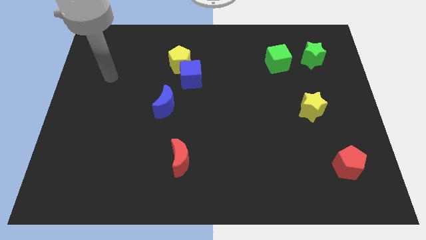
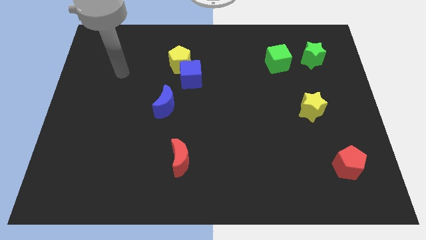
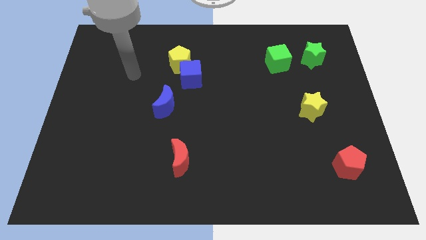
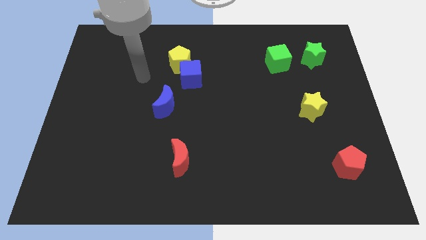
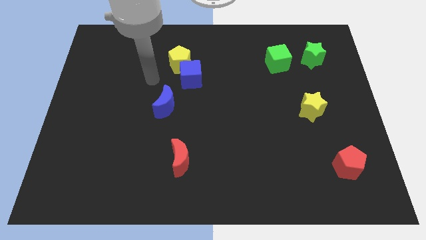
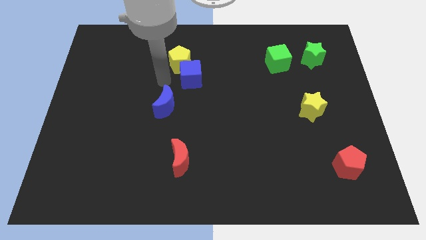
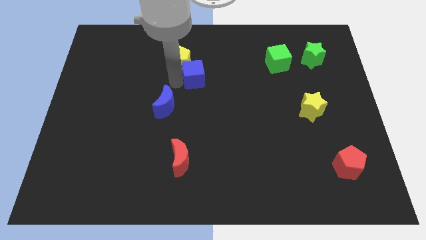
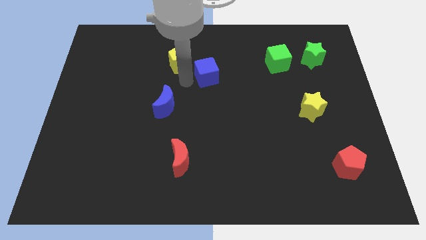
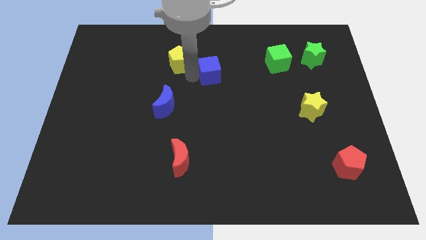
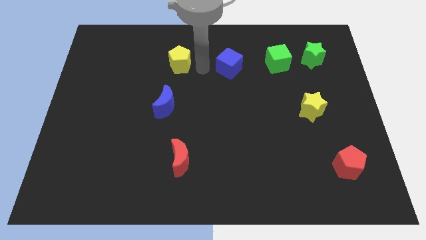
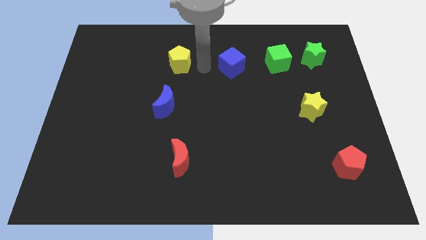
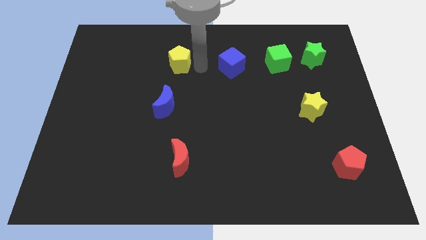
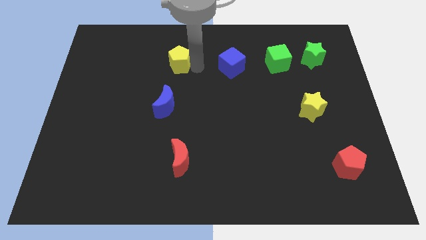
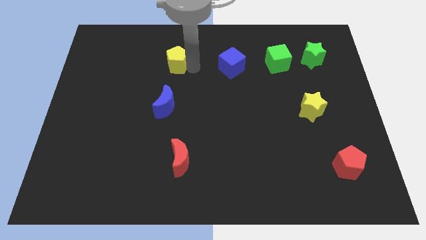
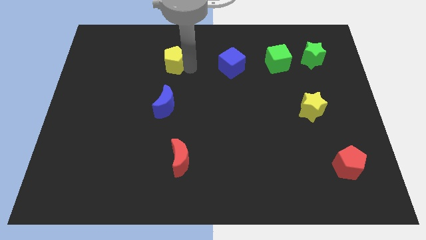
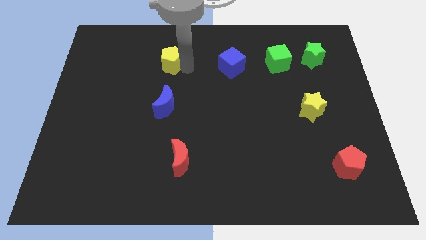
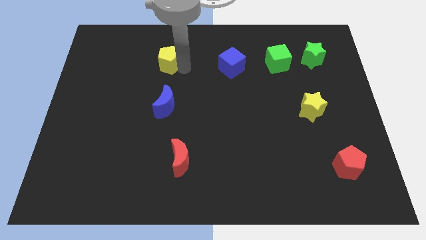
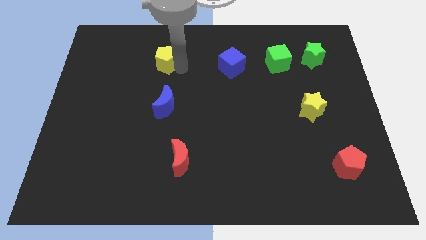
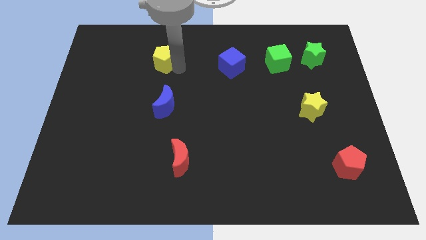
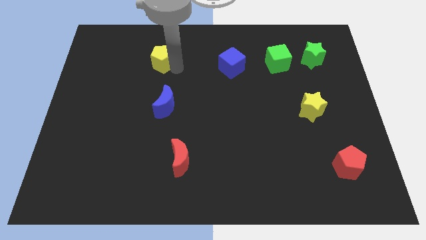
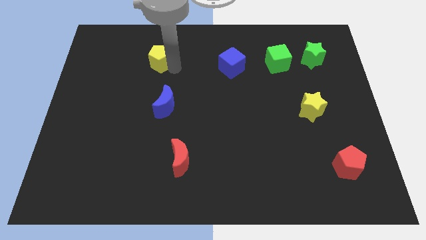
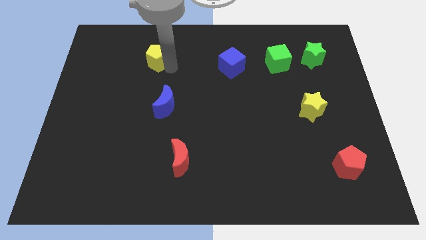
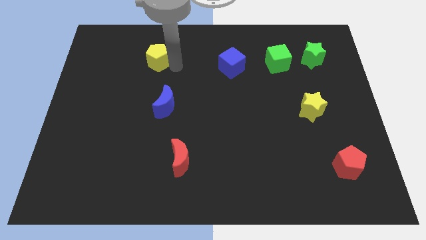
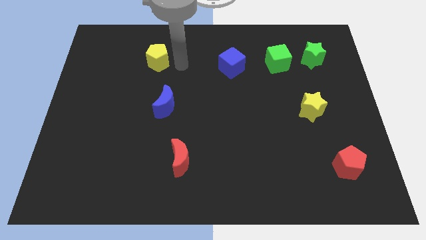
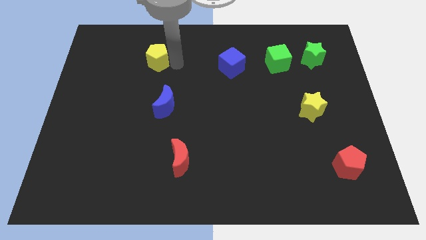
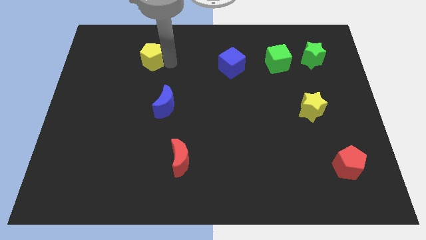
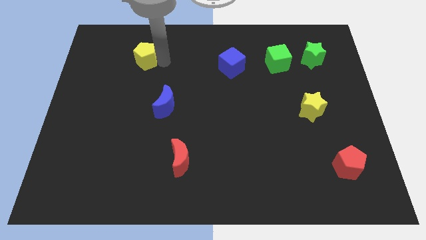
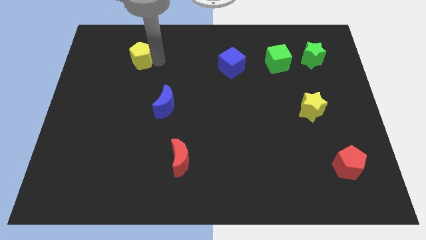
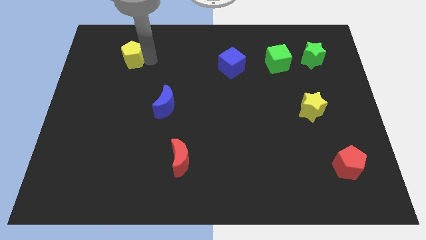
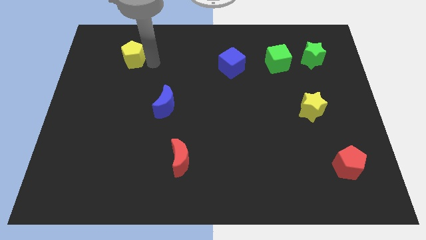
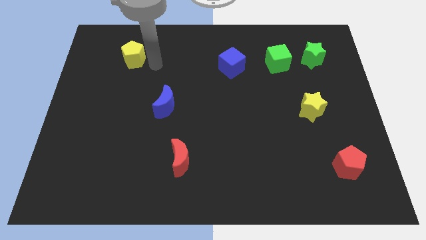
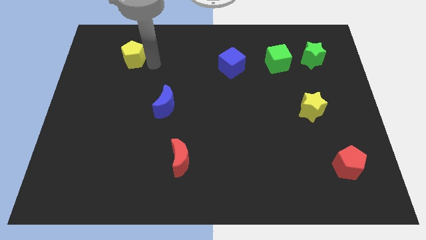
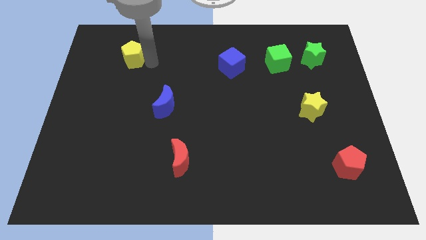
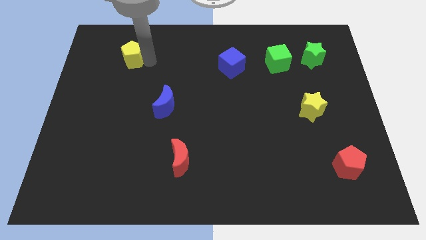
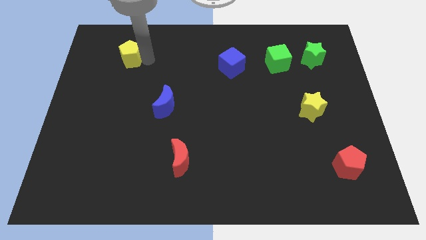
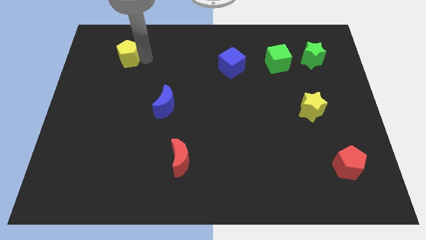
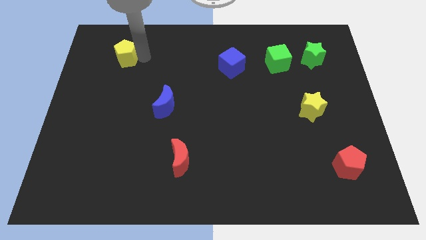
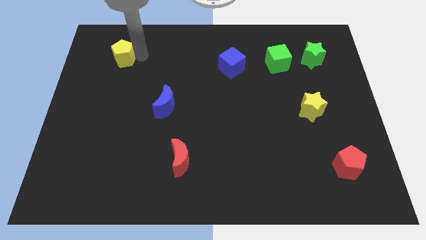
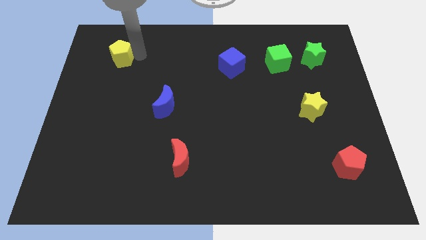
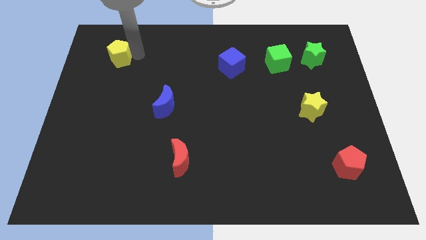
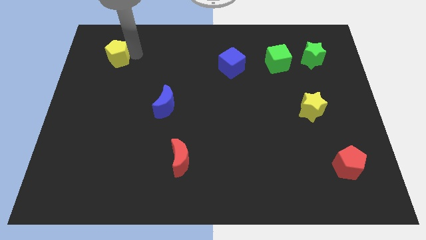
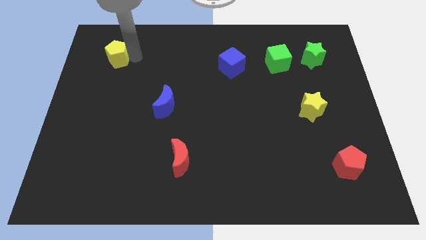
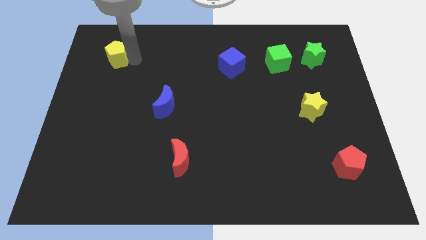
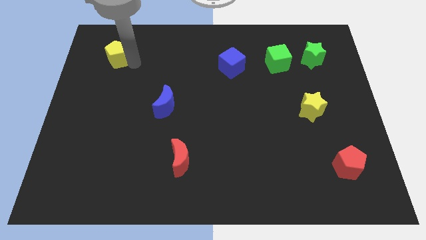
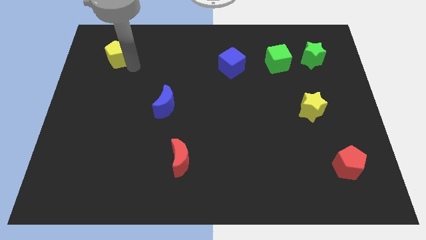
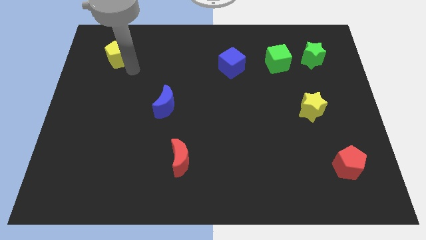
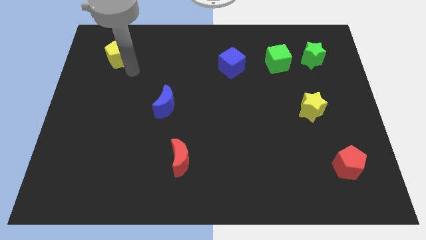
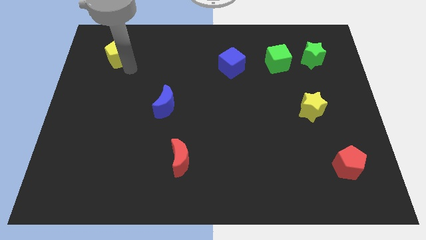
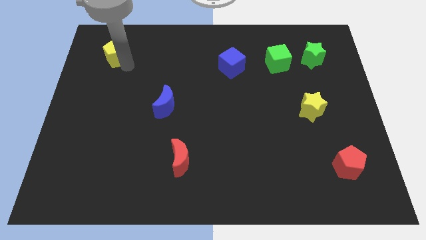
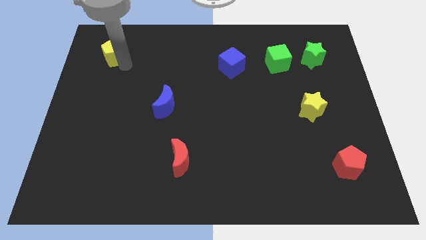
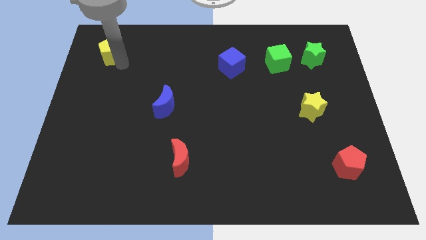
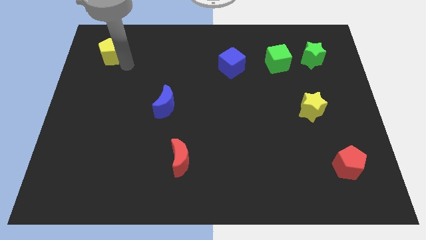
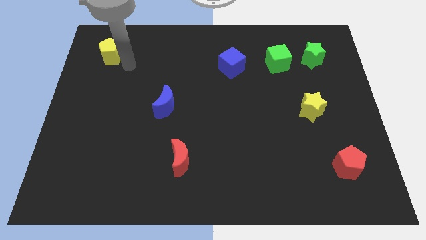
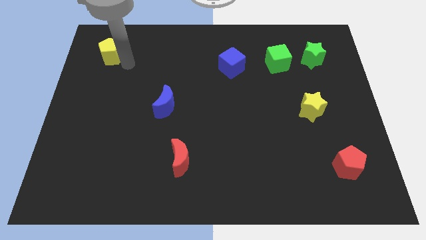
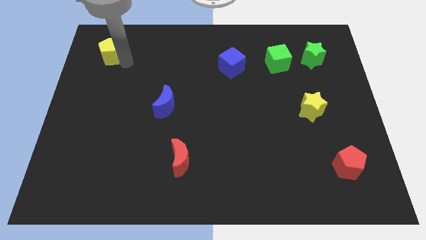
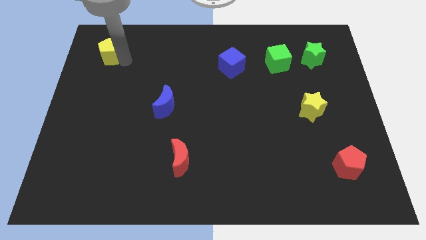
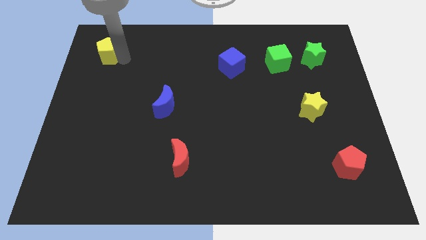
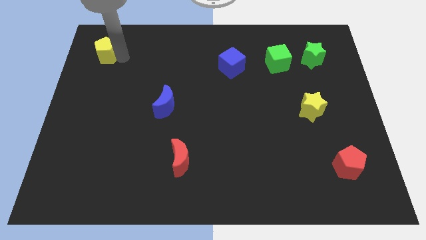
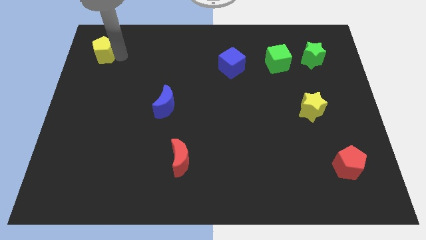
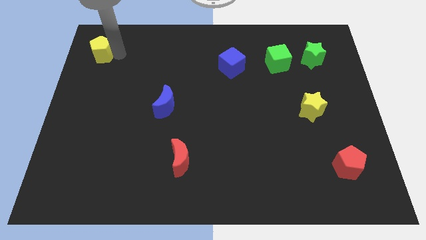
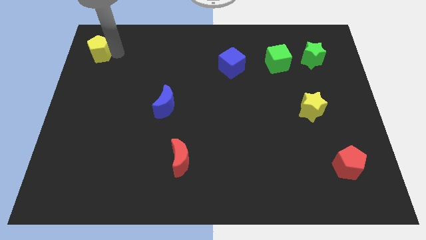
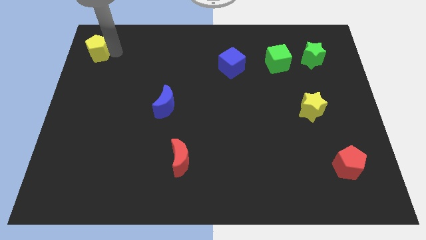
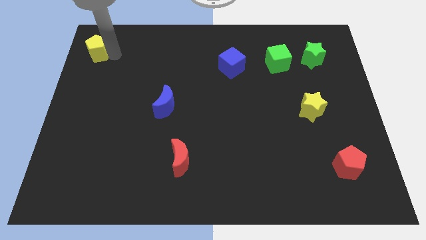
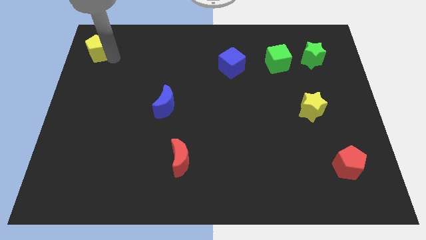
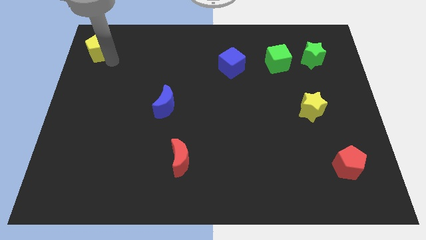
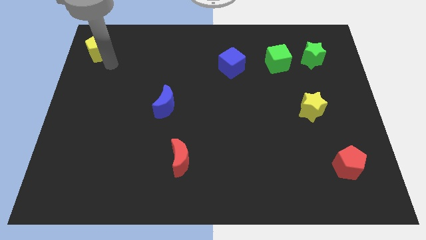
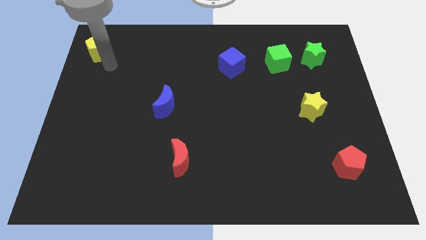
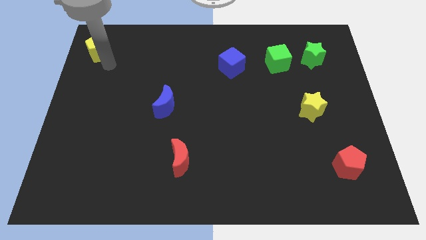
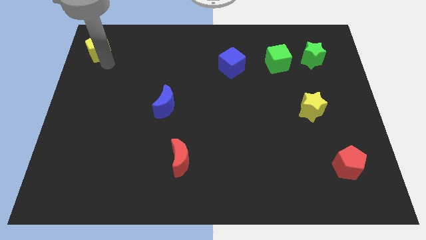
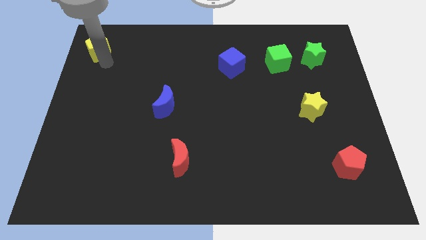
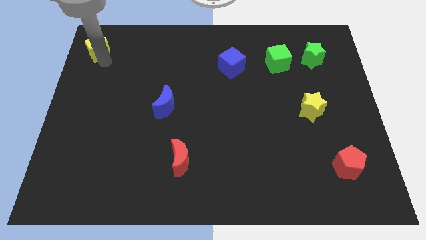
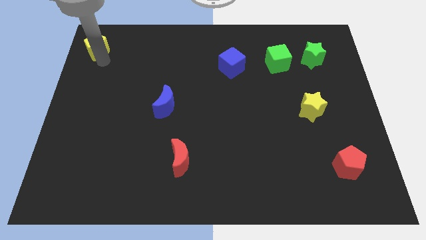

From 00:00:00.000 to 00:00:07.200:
push the yellow pentagon to the top left
